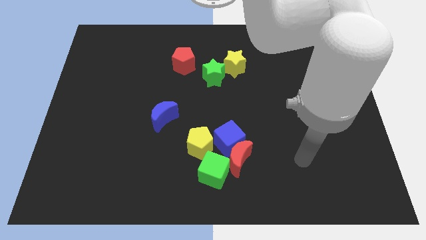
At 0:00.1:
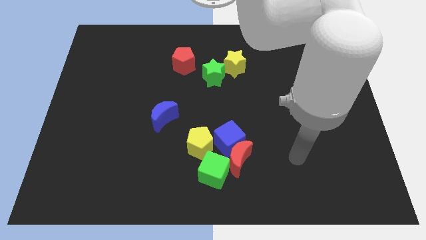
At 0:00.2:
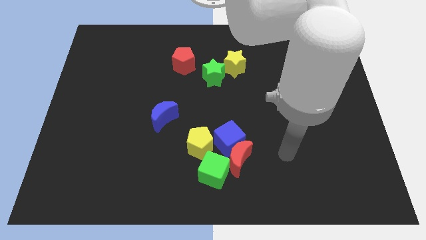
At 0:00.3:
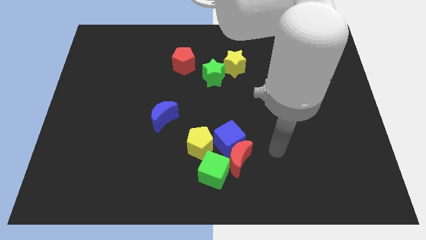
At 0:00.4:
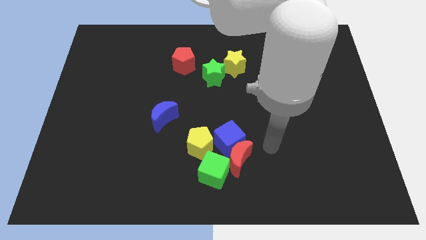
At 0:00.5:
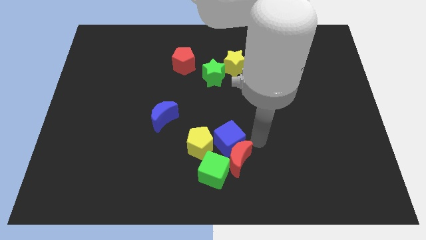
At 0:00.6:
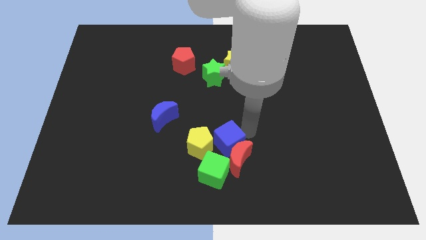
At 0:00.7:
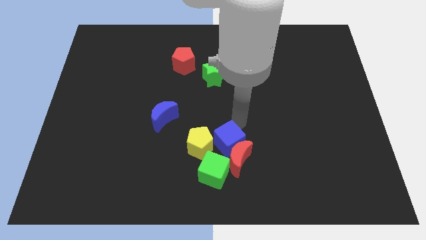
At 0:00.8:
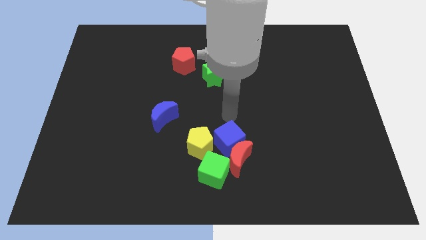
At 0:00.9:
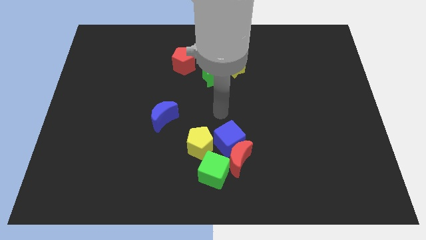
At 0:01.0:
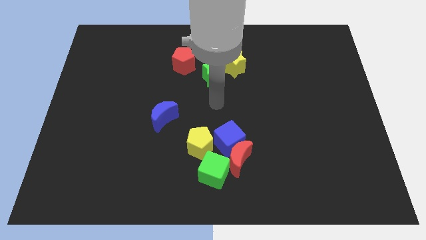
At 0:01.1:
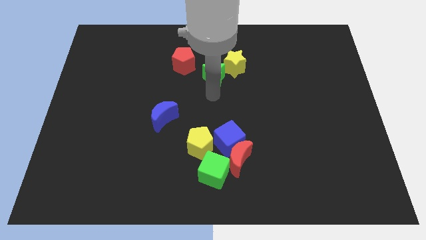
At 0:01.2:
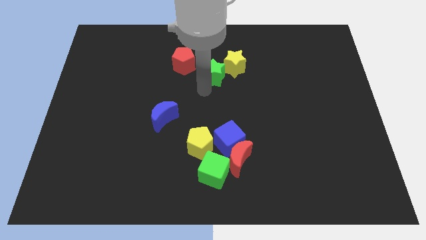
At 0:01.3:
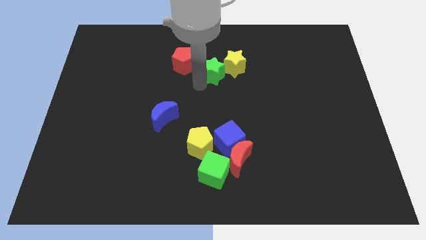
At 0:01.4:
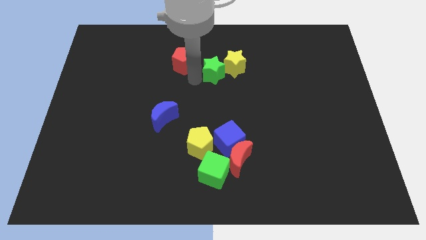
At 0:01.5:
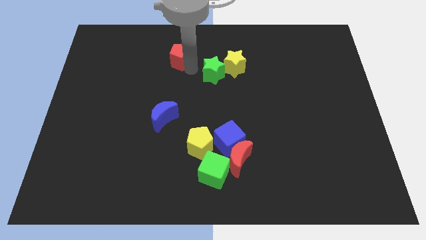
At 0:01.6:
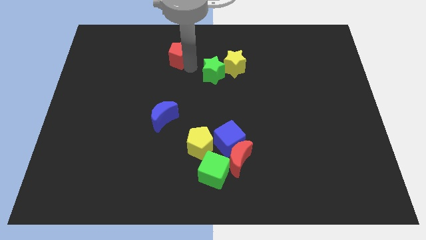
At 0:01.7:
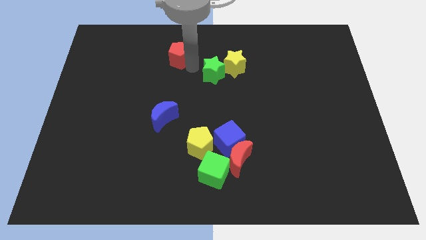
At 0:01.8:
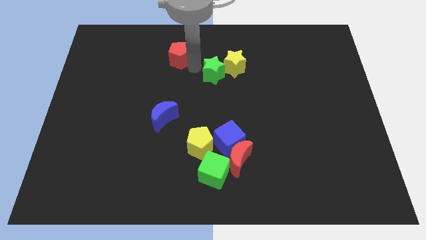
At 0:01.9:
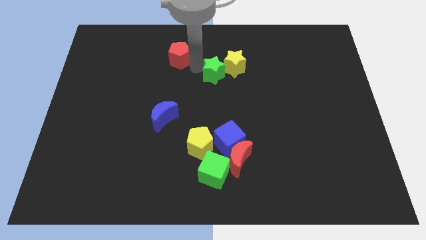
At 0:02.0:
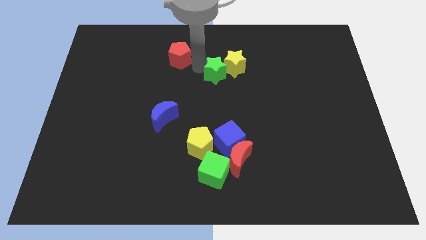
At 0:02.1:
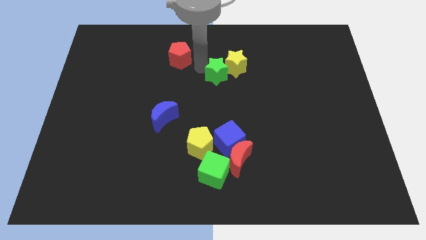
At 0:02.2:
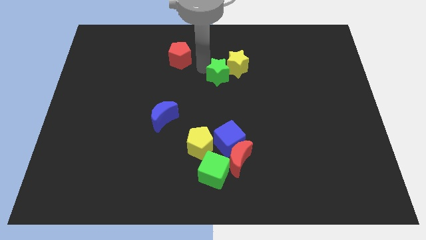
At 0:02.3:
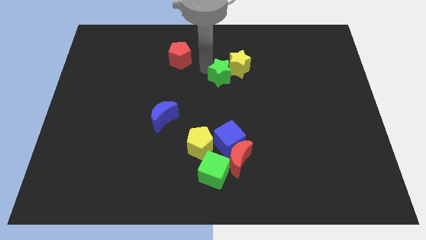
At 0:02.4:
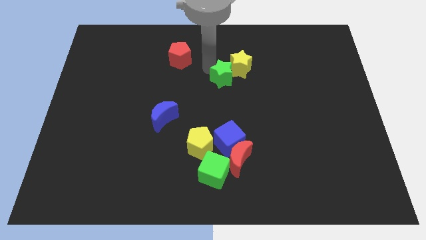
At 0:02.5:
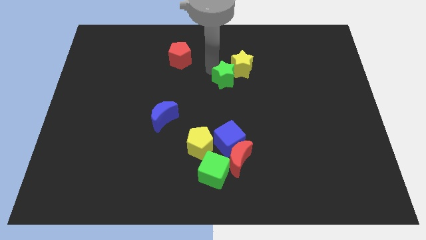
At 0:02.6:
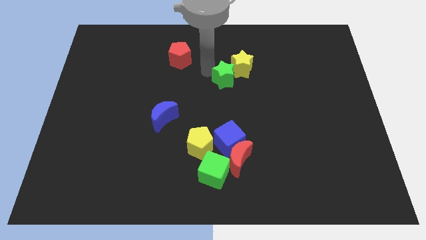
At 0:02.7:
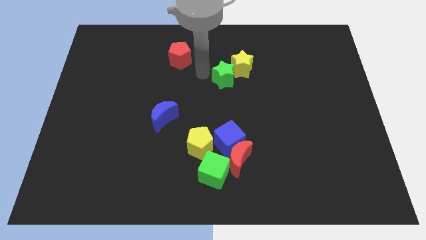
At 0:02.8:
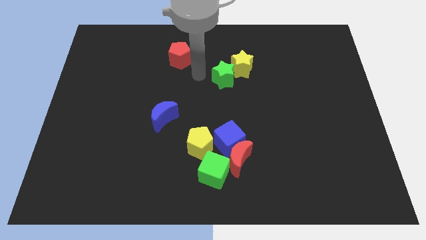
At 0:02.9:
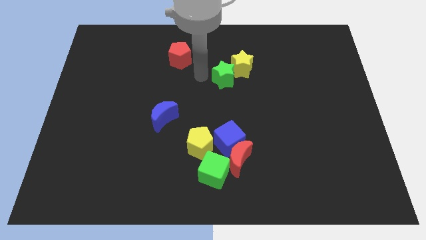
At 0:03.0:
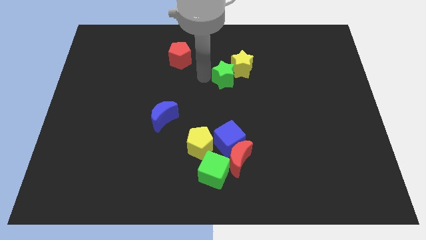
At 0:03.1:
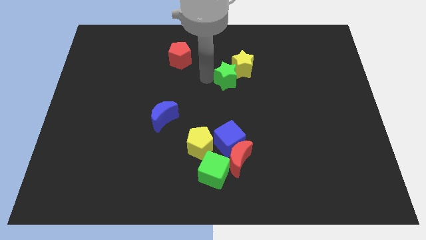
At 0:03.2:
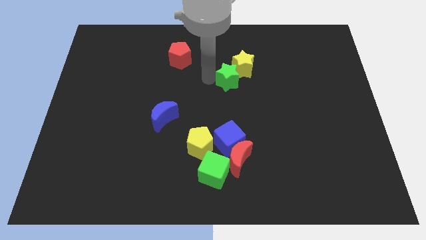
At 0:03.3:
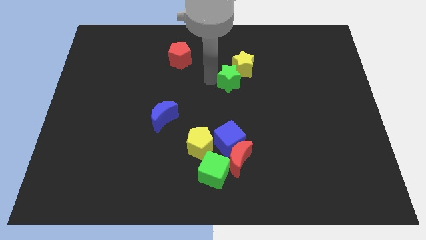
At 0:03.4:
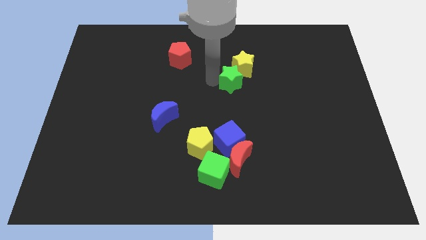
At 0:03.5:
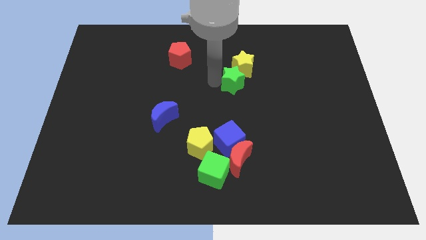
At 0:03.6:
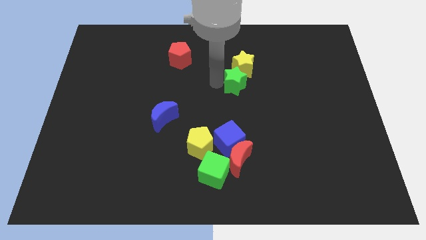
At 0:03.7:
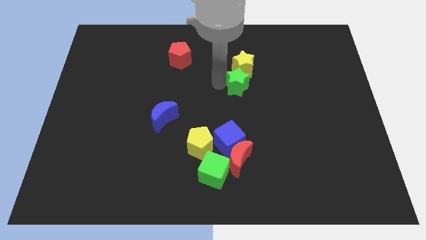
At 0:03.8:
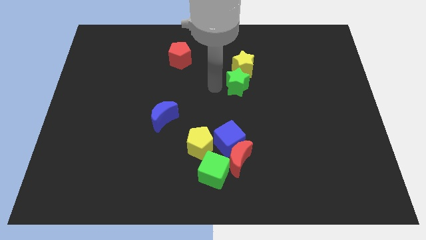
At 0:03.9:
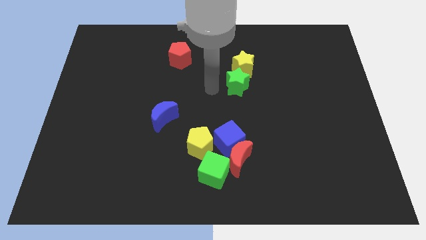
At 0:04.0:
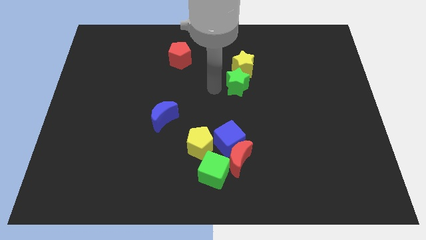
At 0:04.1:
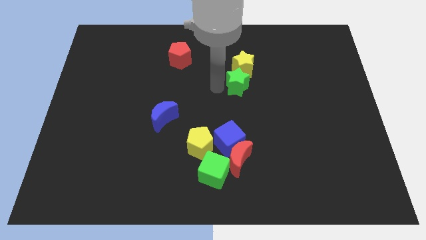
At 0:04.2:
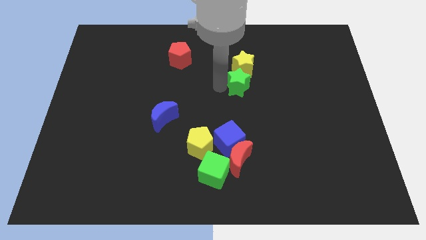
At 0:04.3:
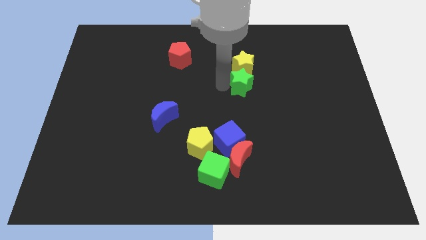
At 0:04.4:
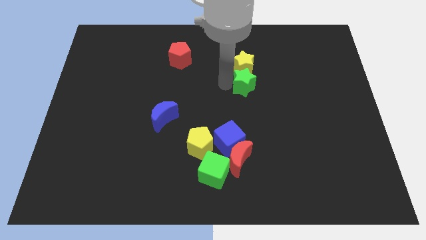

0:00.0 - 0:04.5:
slightly push the green star to the right

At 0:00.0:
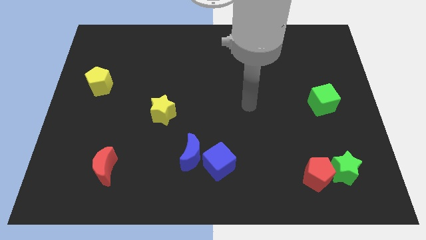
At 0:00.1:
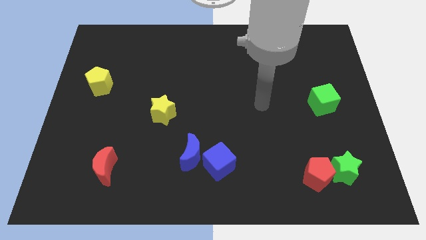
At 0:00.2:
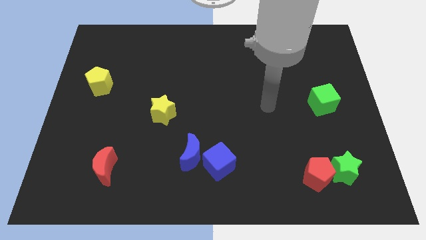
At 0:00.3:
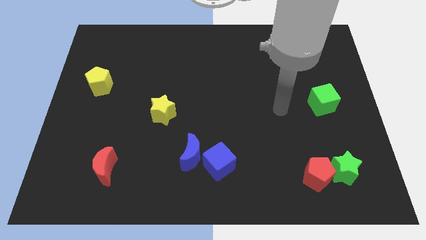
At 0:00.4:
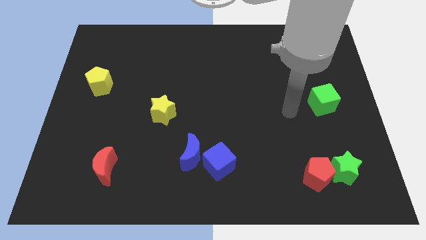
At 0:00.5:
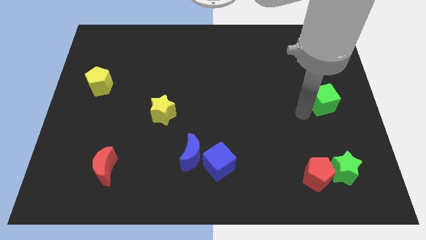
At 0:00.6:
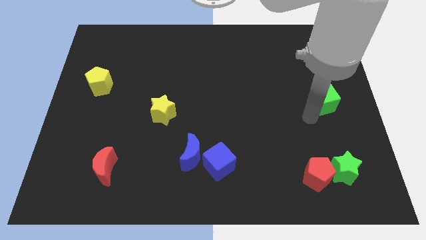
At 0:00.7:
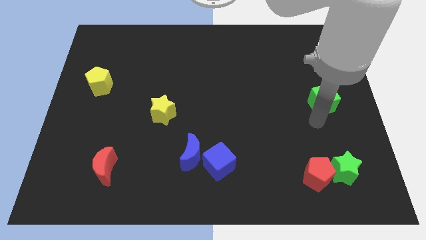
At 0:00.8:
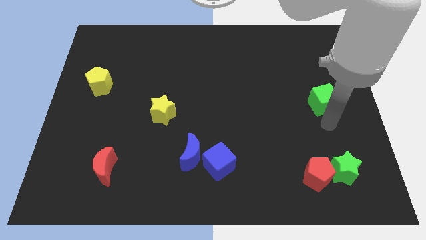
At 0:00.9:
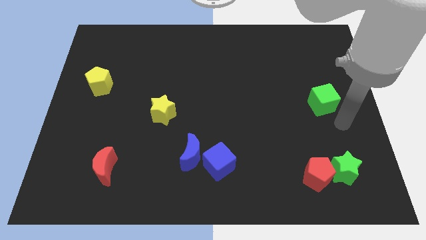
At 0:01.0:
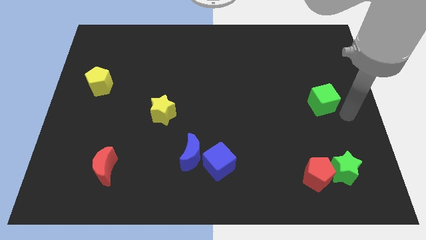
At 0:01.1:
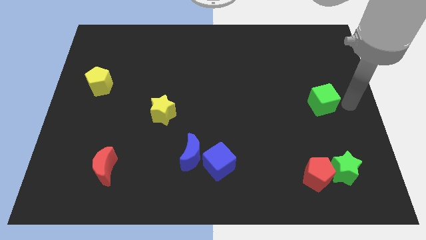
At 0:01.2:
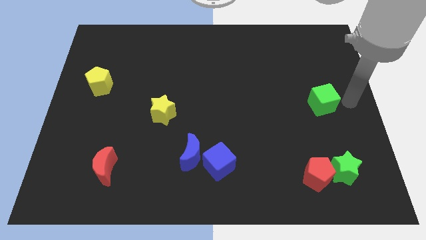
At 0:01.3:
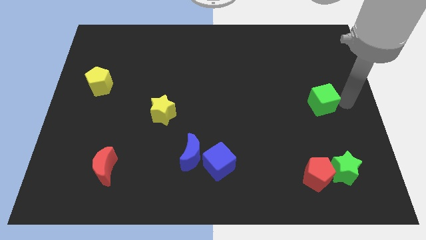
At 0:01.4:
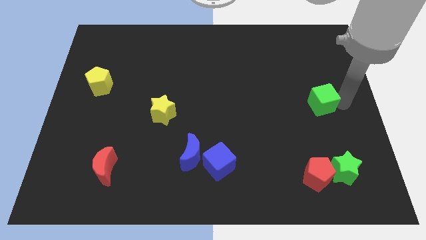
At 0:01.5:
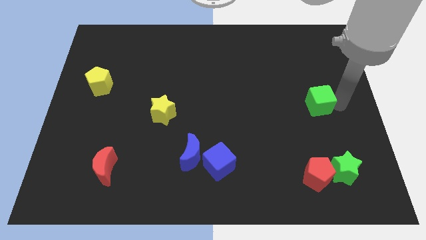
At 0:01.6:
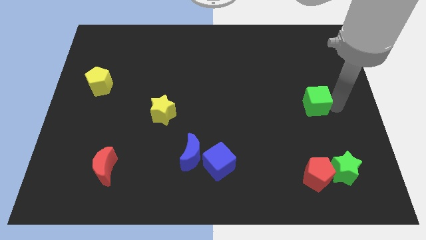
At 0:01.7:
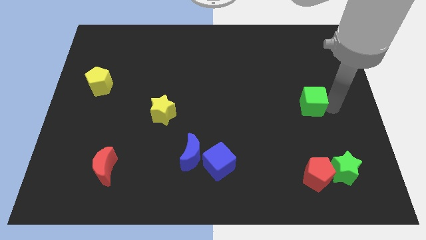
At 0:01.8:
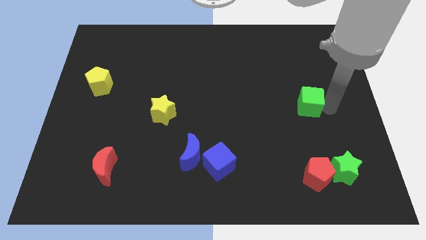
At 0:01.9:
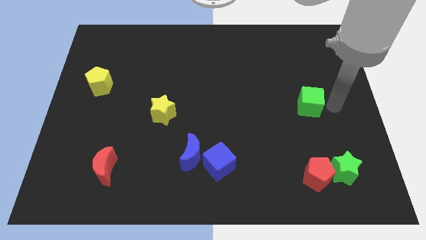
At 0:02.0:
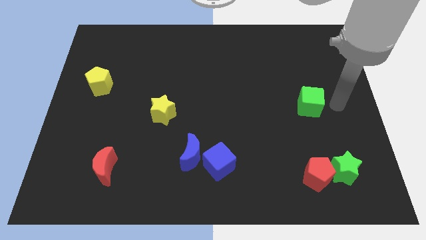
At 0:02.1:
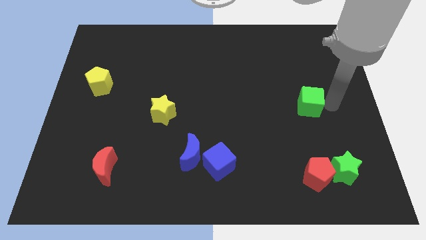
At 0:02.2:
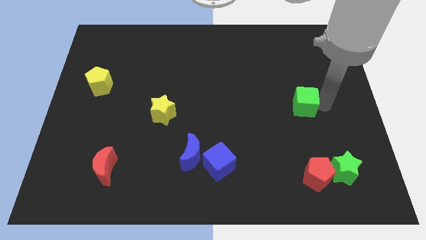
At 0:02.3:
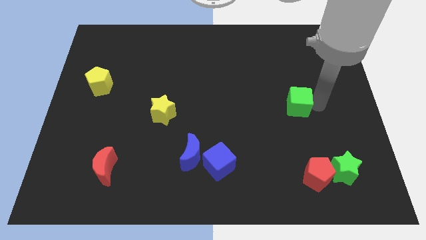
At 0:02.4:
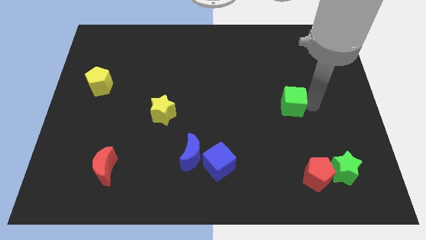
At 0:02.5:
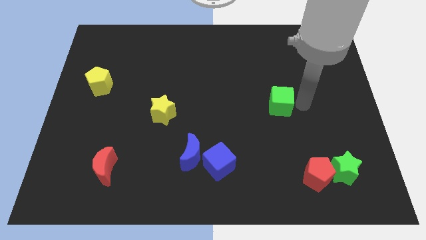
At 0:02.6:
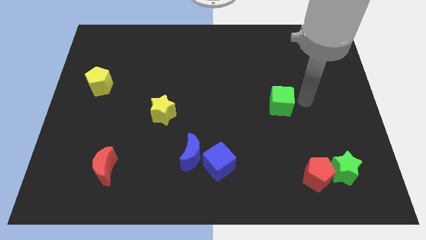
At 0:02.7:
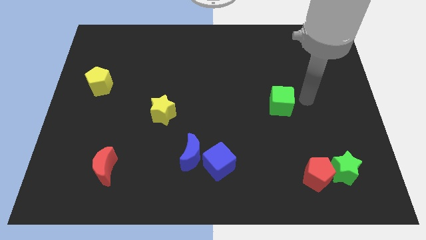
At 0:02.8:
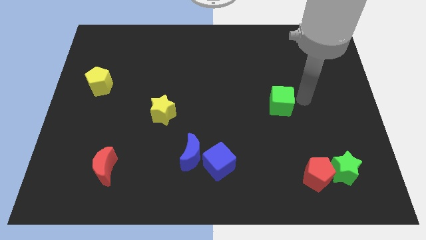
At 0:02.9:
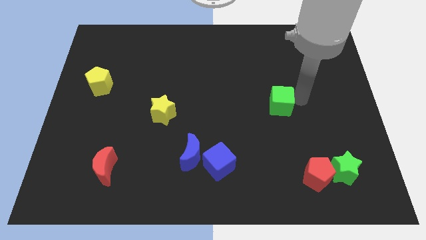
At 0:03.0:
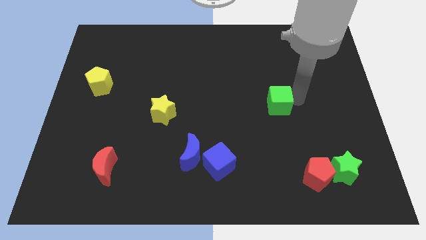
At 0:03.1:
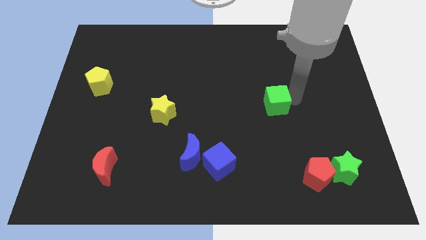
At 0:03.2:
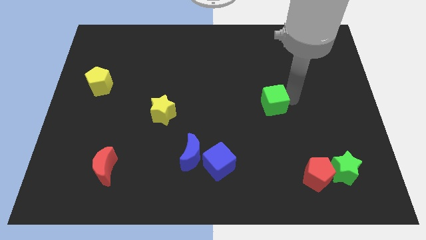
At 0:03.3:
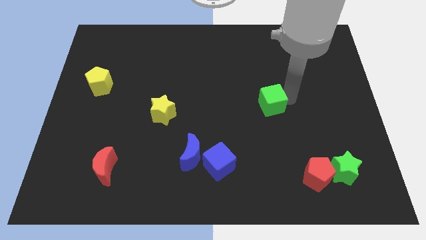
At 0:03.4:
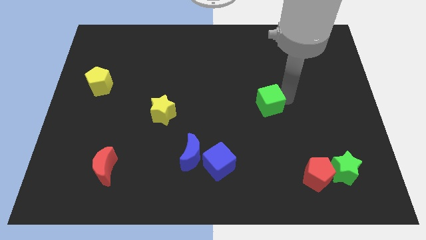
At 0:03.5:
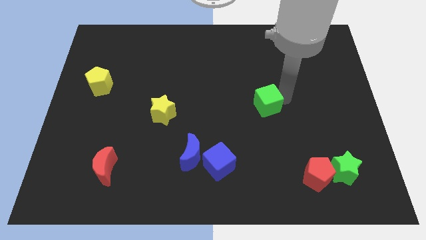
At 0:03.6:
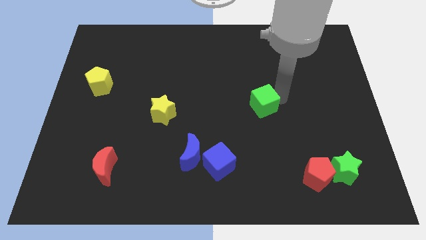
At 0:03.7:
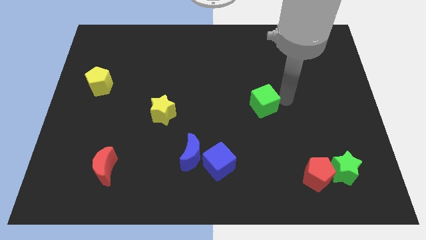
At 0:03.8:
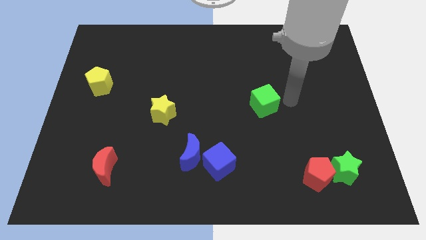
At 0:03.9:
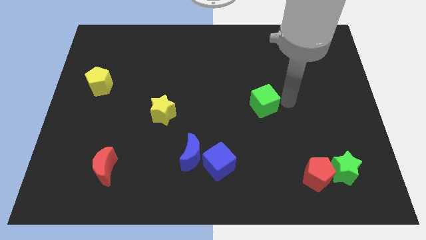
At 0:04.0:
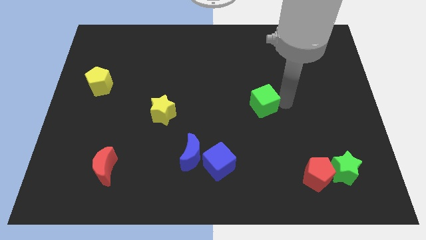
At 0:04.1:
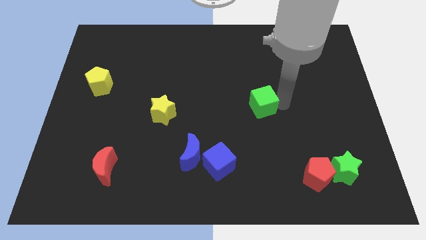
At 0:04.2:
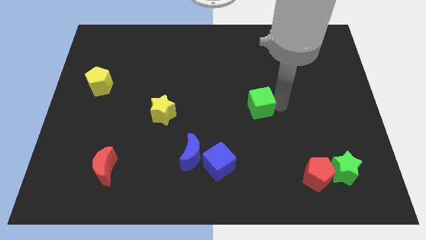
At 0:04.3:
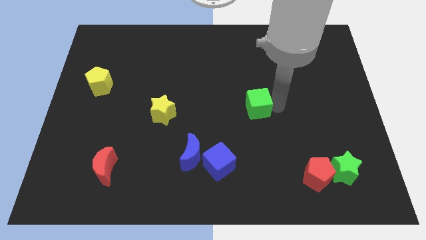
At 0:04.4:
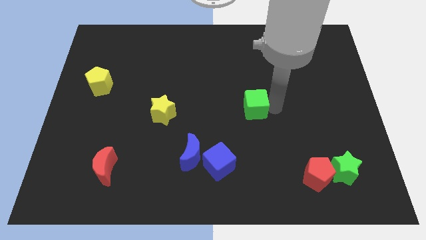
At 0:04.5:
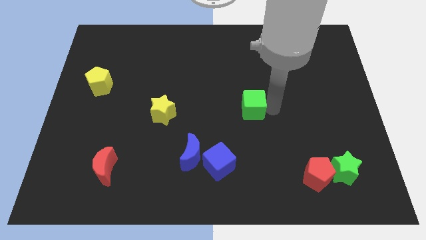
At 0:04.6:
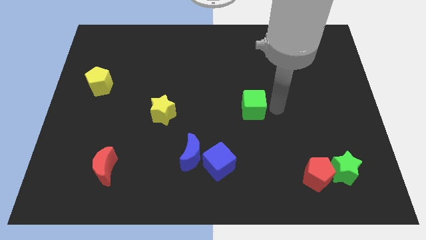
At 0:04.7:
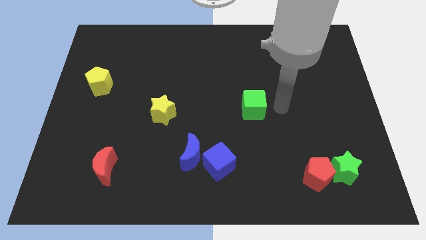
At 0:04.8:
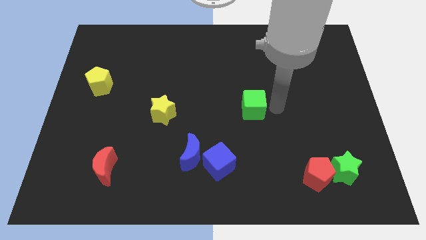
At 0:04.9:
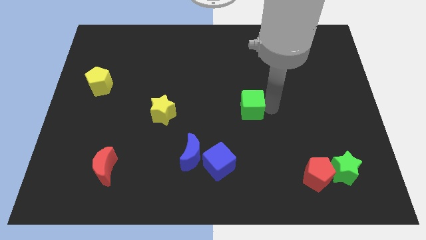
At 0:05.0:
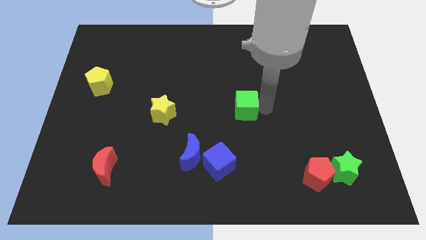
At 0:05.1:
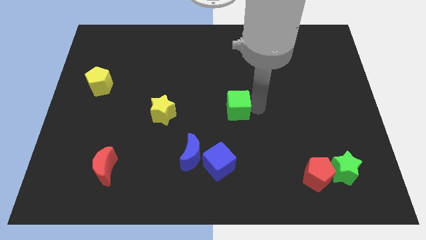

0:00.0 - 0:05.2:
slide the green cube to the left
